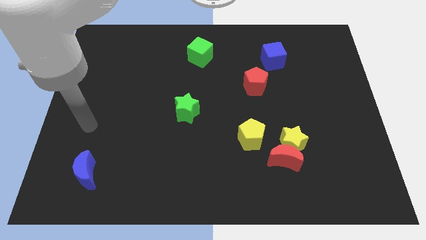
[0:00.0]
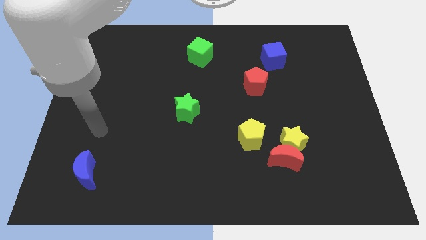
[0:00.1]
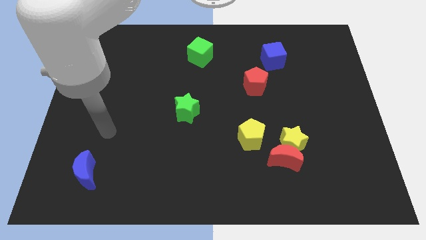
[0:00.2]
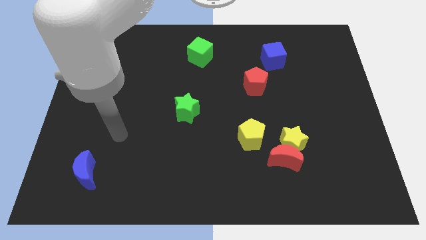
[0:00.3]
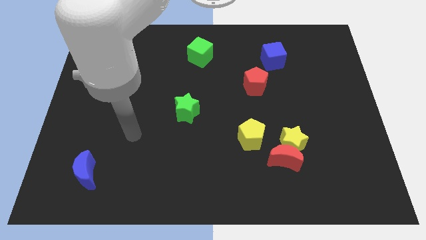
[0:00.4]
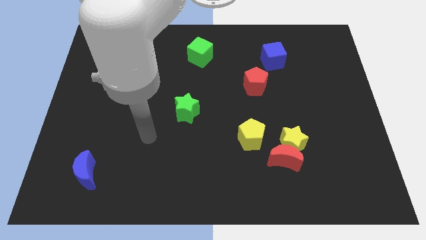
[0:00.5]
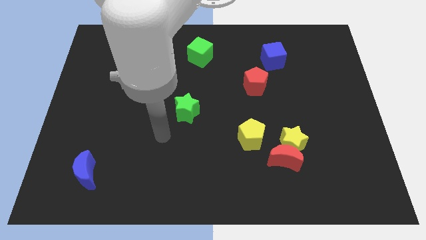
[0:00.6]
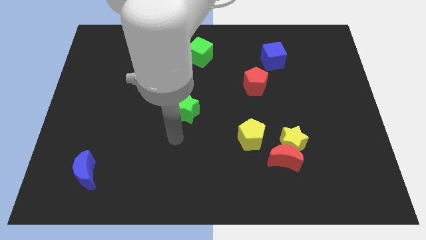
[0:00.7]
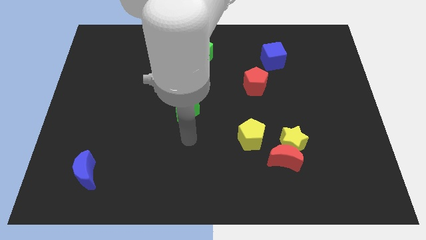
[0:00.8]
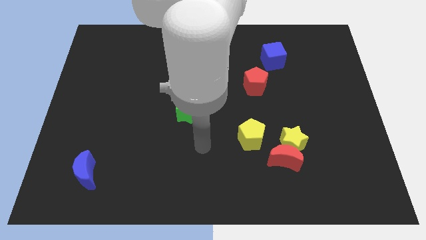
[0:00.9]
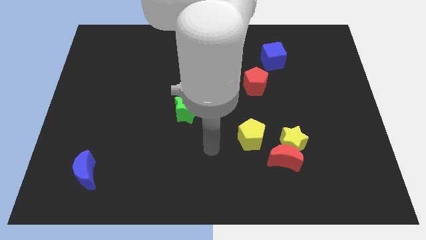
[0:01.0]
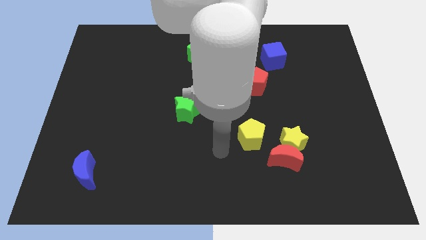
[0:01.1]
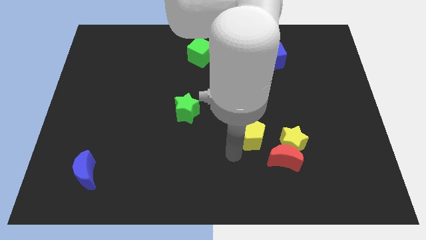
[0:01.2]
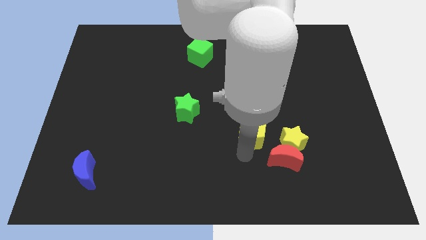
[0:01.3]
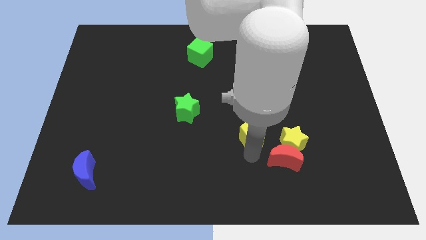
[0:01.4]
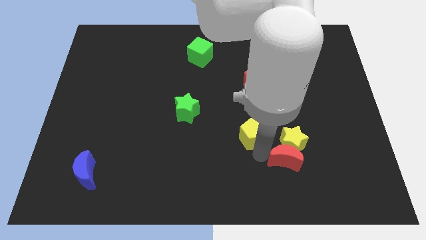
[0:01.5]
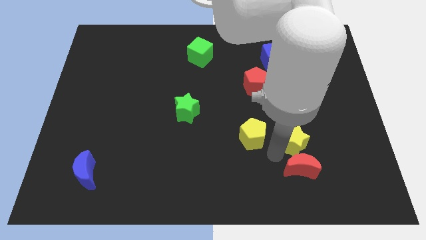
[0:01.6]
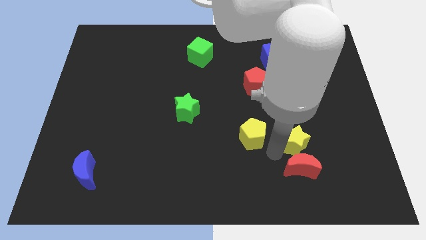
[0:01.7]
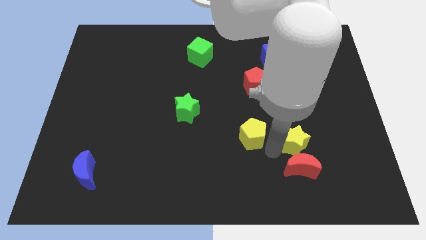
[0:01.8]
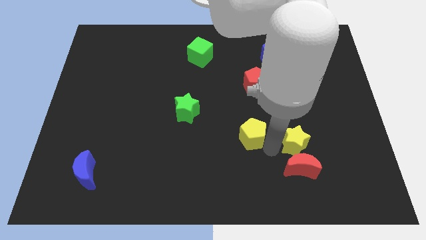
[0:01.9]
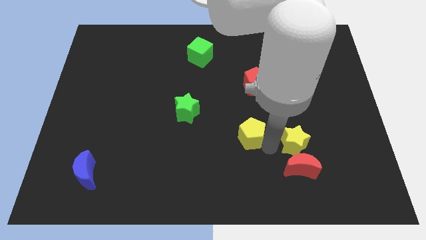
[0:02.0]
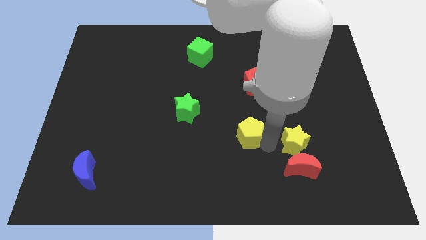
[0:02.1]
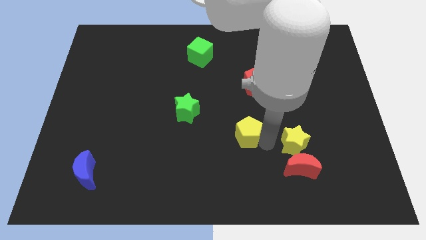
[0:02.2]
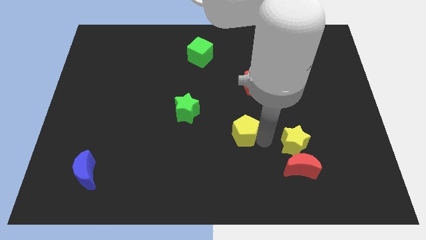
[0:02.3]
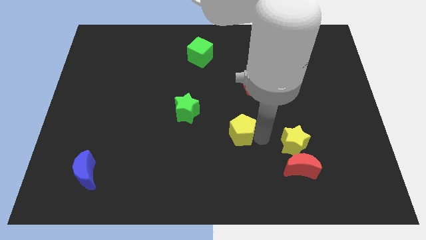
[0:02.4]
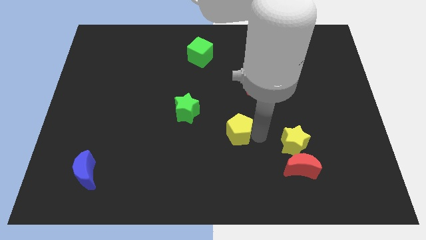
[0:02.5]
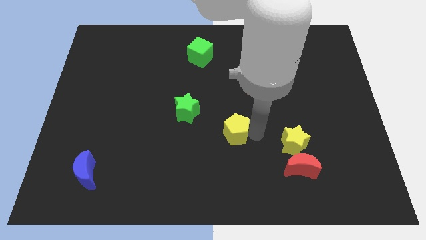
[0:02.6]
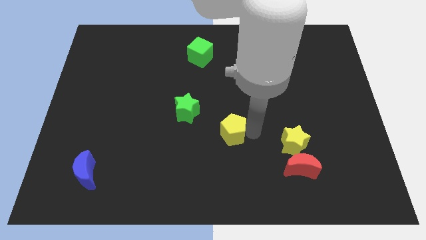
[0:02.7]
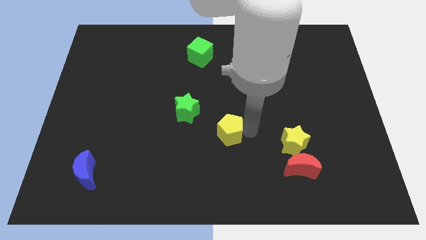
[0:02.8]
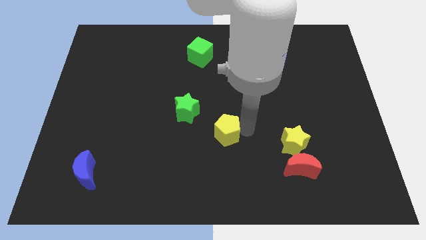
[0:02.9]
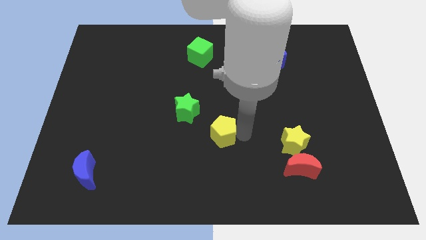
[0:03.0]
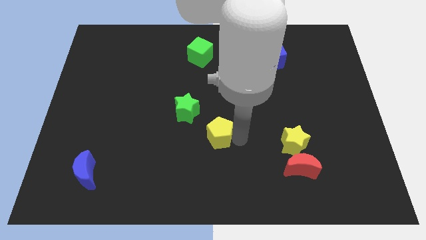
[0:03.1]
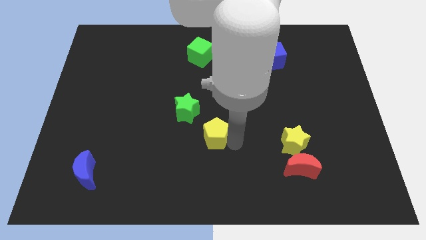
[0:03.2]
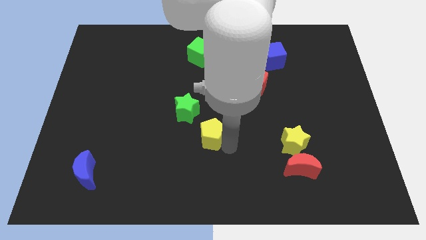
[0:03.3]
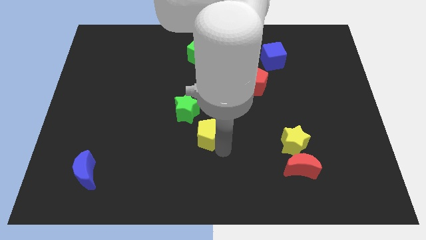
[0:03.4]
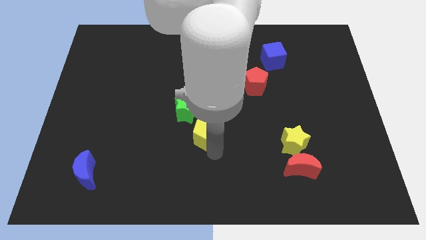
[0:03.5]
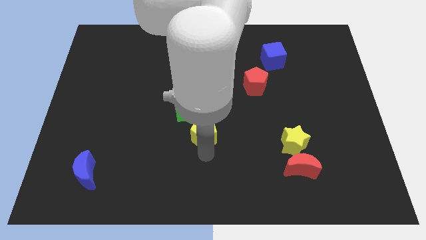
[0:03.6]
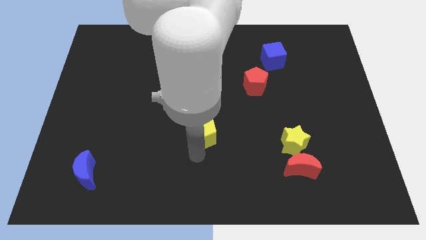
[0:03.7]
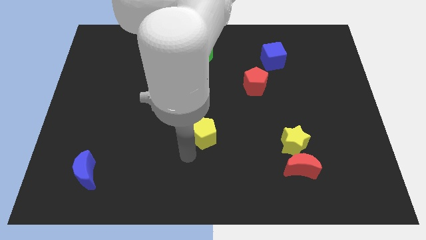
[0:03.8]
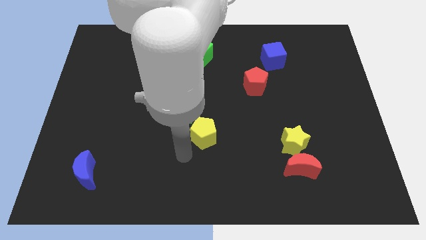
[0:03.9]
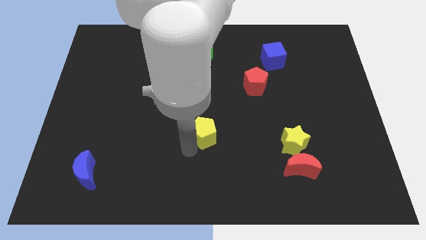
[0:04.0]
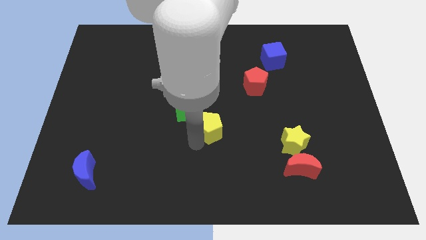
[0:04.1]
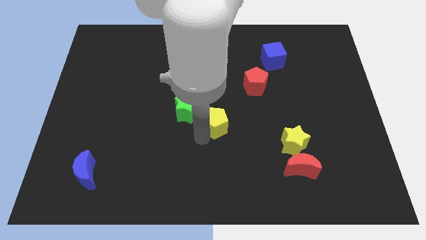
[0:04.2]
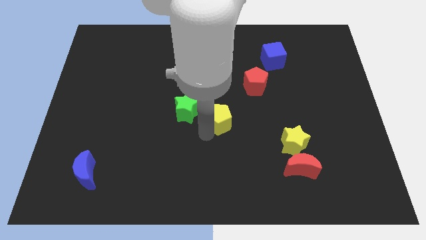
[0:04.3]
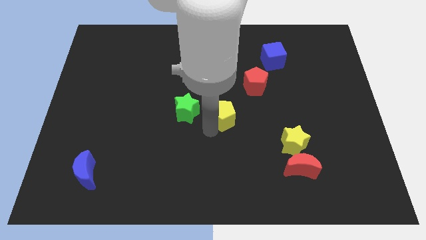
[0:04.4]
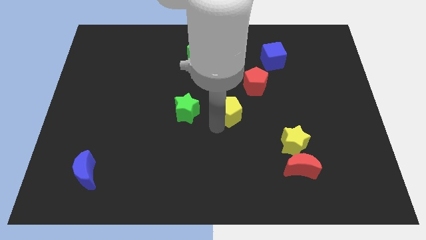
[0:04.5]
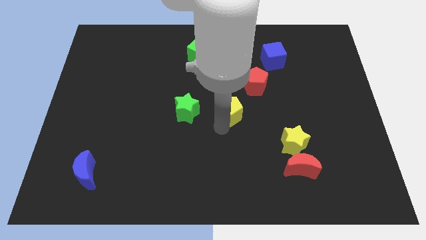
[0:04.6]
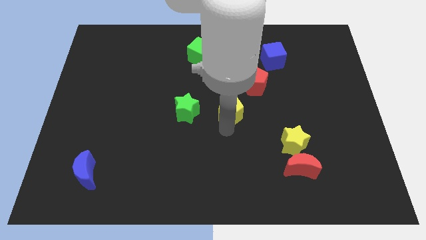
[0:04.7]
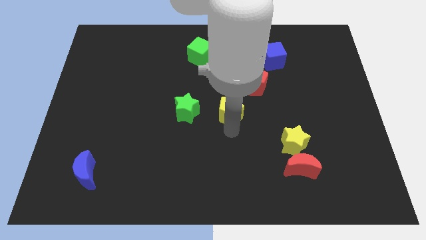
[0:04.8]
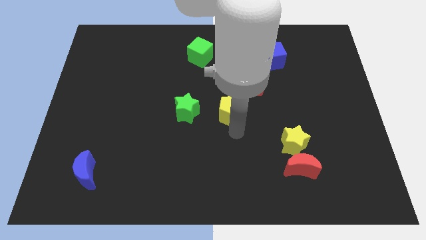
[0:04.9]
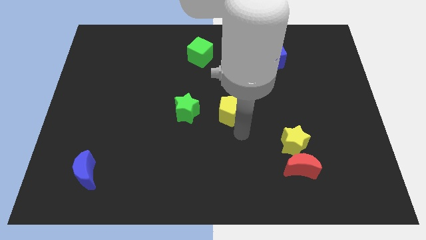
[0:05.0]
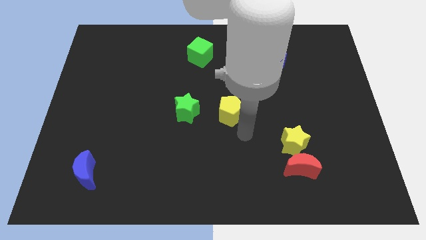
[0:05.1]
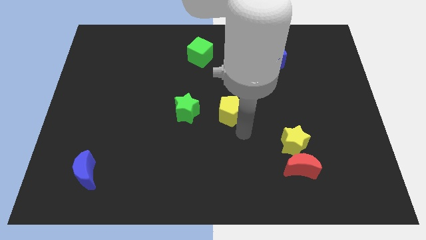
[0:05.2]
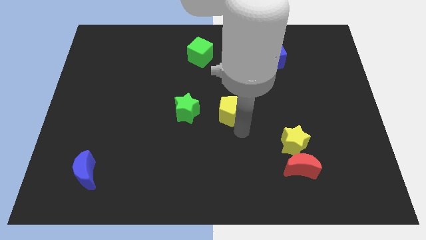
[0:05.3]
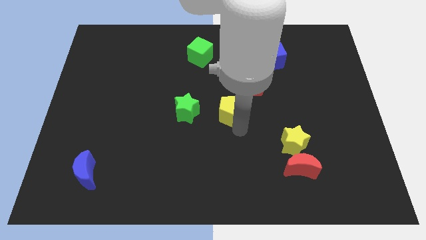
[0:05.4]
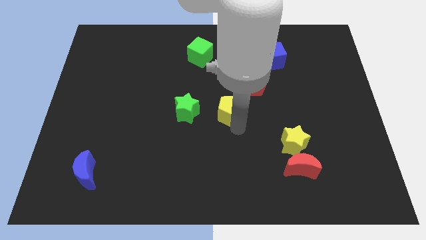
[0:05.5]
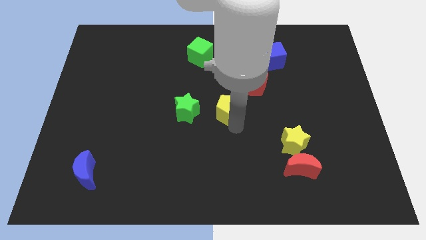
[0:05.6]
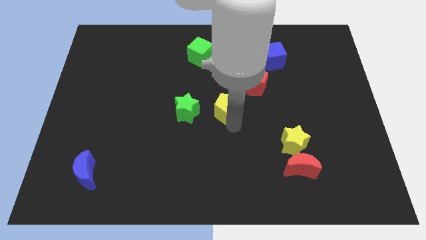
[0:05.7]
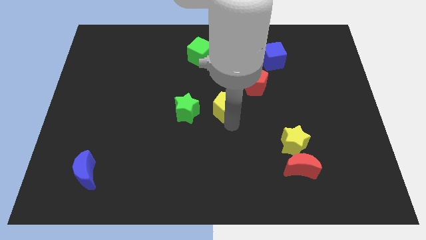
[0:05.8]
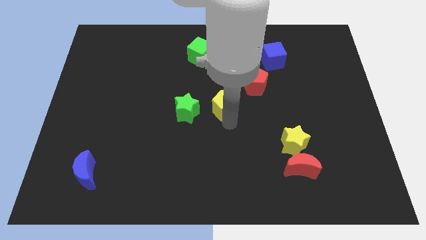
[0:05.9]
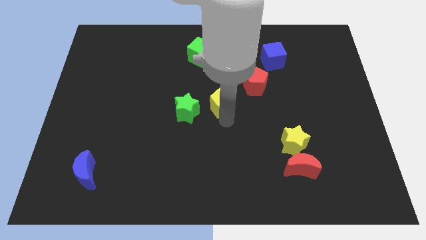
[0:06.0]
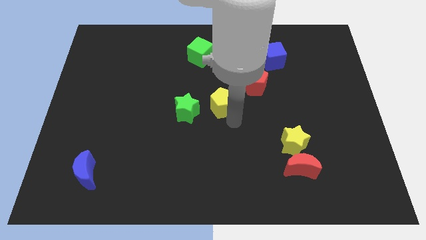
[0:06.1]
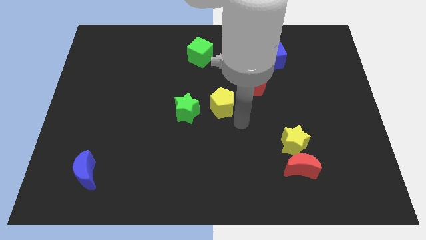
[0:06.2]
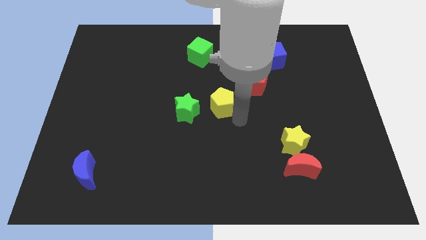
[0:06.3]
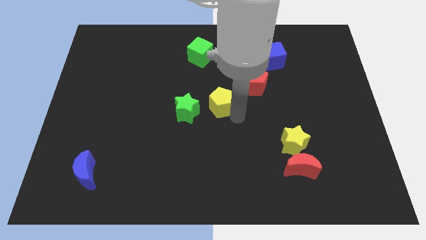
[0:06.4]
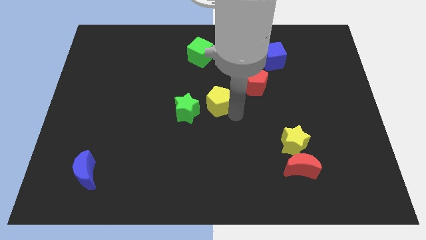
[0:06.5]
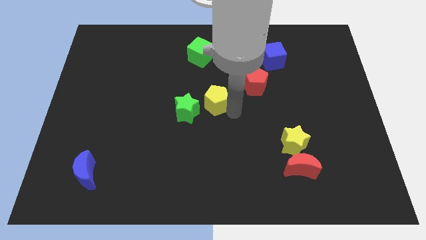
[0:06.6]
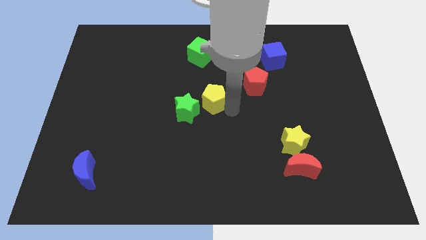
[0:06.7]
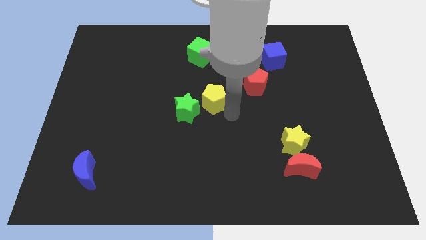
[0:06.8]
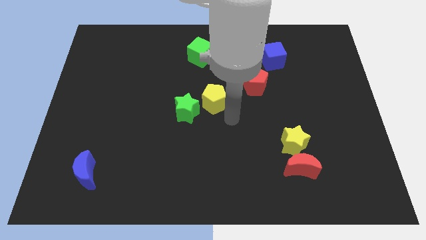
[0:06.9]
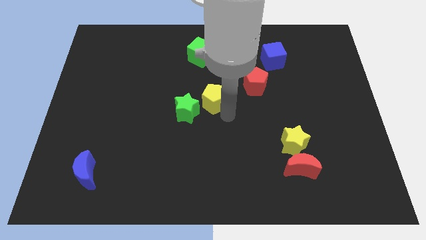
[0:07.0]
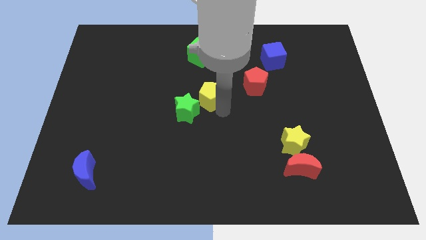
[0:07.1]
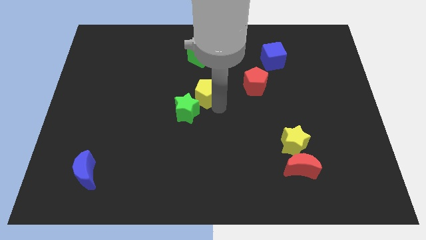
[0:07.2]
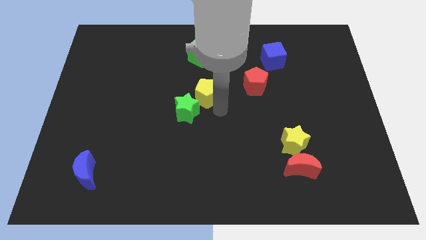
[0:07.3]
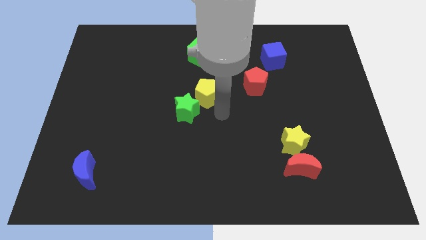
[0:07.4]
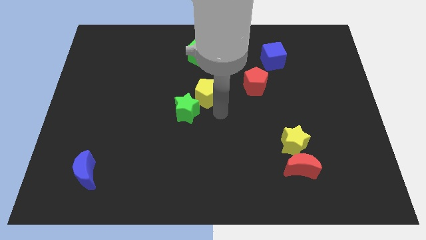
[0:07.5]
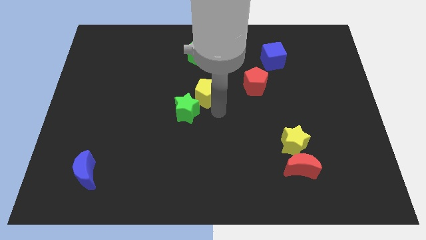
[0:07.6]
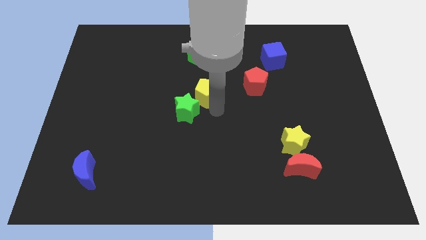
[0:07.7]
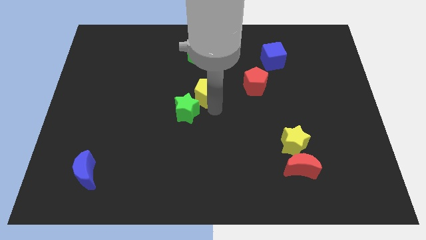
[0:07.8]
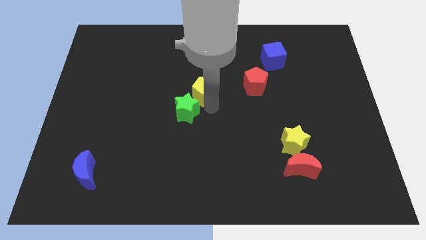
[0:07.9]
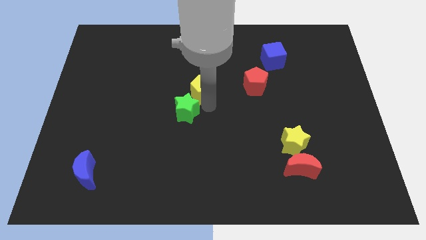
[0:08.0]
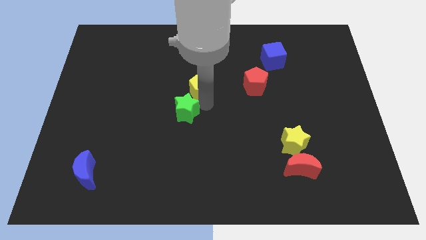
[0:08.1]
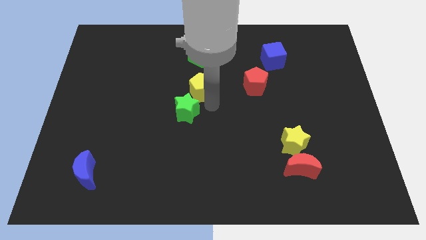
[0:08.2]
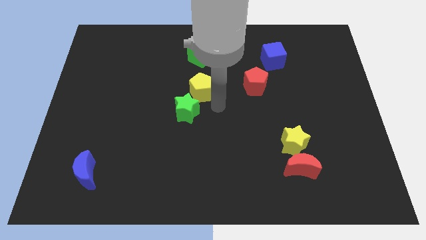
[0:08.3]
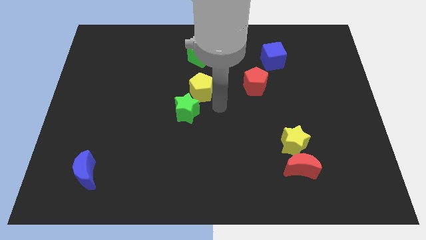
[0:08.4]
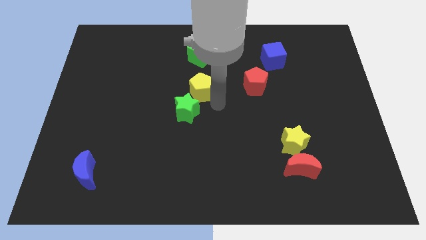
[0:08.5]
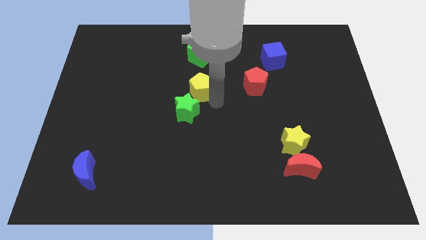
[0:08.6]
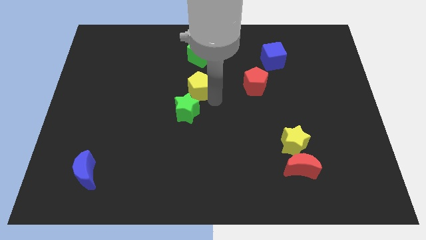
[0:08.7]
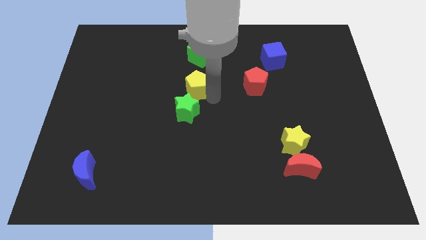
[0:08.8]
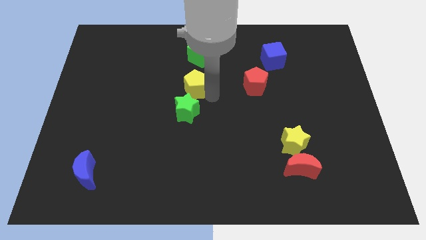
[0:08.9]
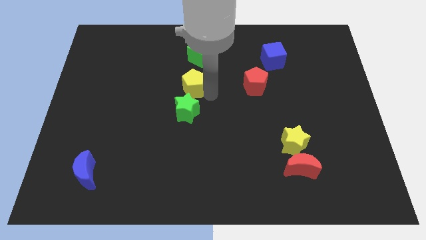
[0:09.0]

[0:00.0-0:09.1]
move the yellow pentagon upwards and to the left
